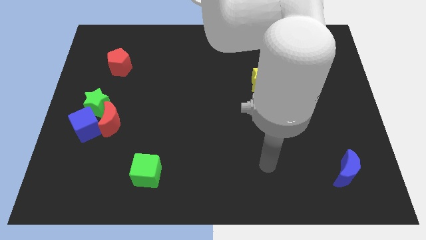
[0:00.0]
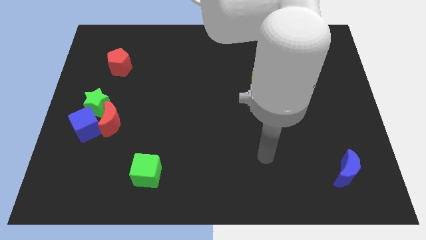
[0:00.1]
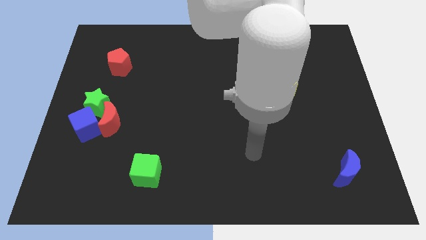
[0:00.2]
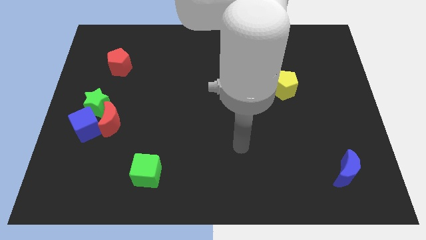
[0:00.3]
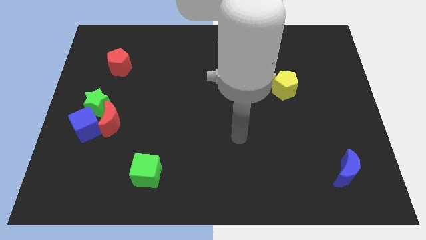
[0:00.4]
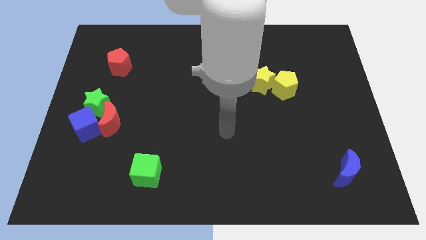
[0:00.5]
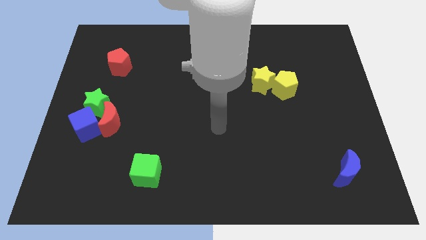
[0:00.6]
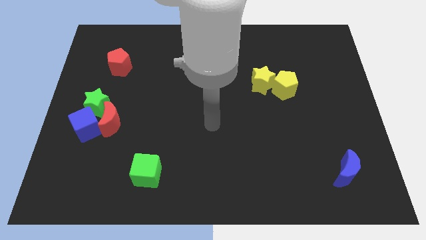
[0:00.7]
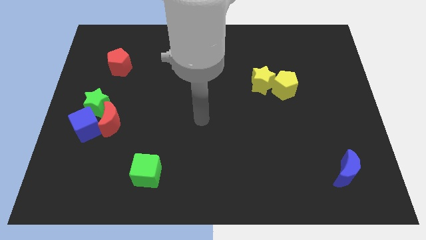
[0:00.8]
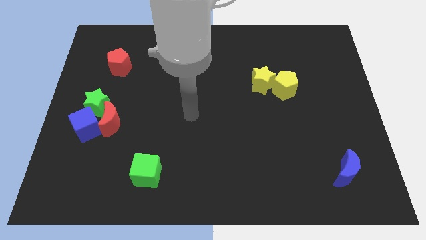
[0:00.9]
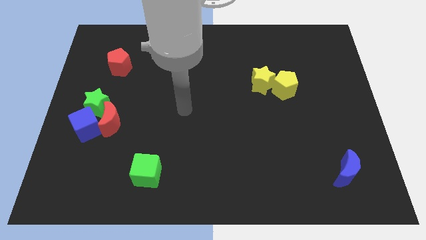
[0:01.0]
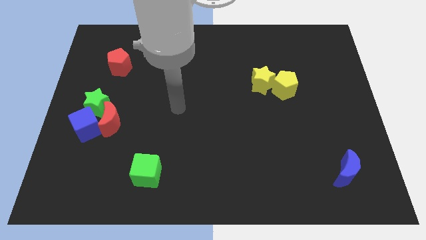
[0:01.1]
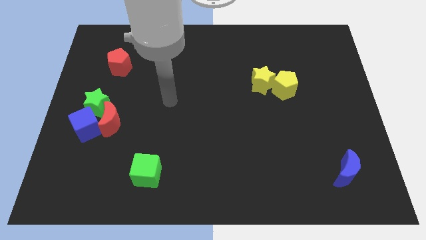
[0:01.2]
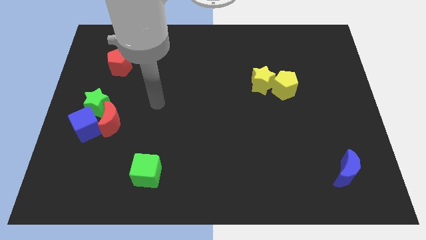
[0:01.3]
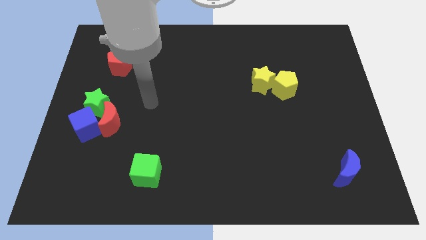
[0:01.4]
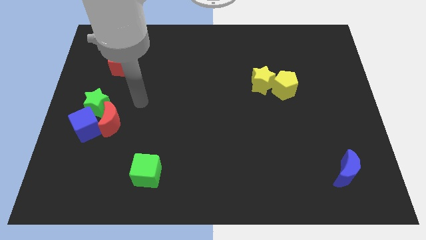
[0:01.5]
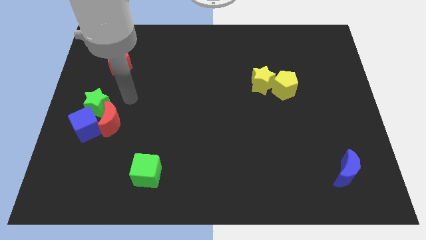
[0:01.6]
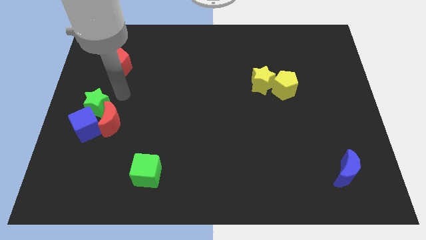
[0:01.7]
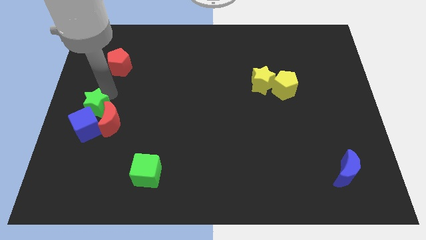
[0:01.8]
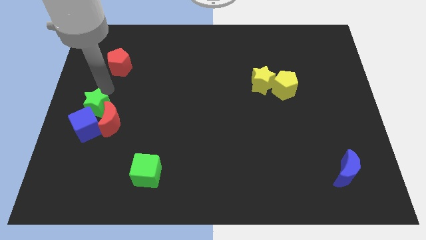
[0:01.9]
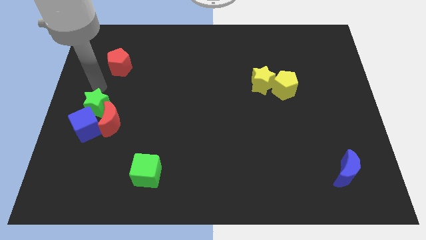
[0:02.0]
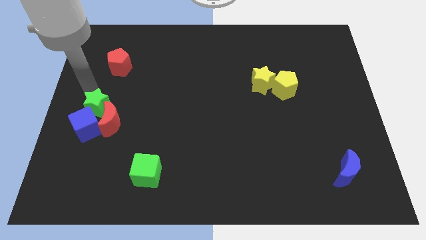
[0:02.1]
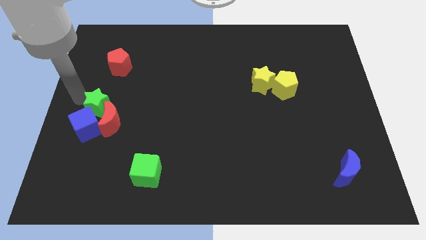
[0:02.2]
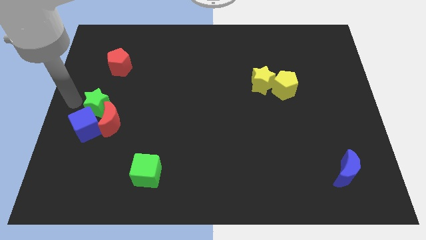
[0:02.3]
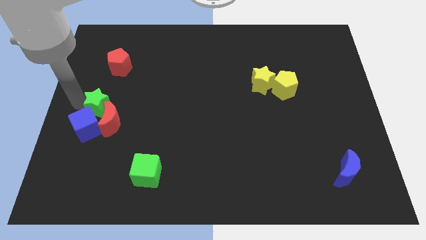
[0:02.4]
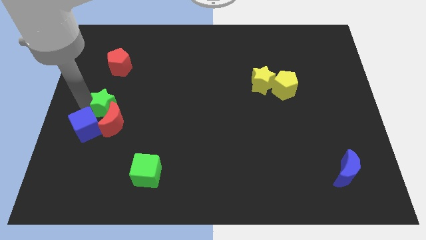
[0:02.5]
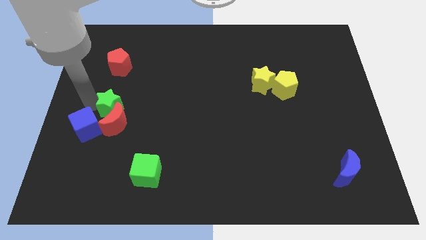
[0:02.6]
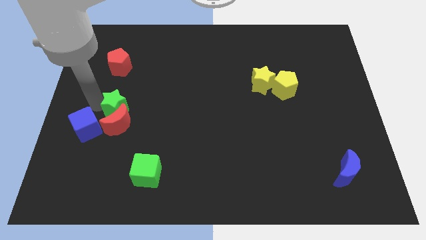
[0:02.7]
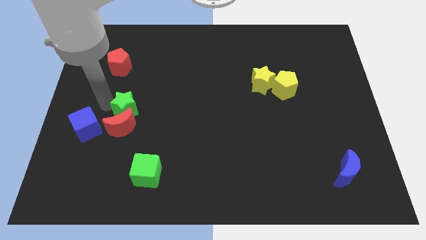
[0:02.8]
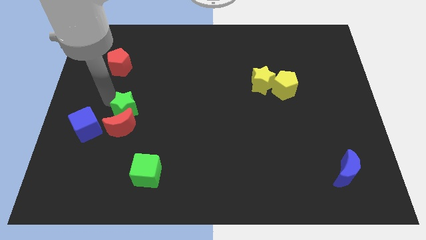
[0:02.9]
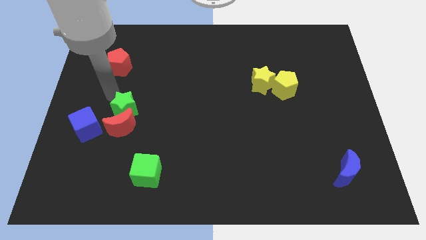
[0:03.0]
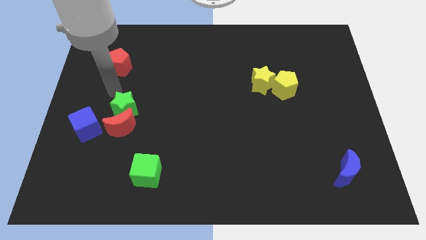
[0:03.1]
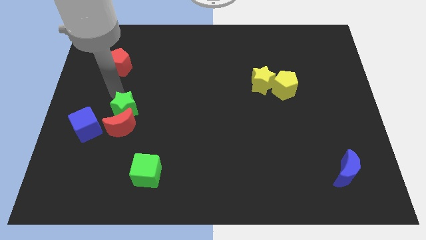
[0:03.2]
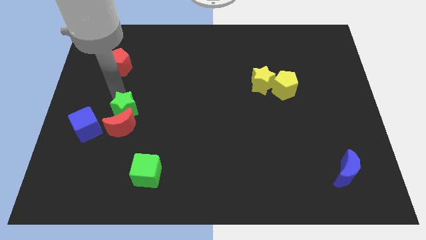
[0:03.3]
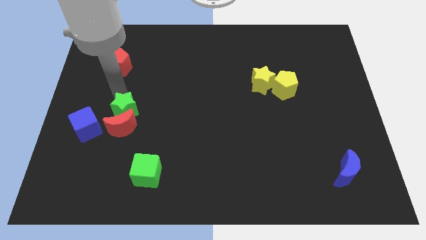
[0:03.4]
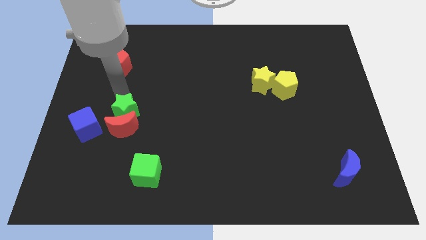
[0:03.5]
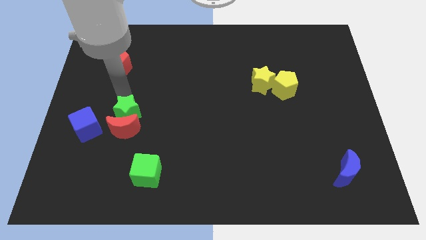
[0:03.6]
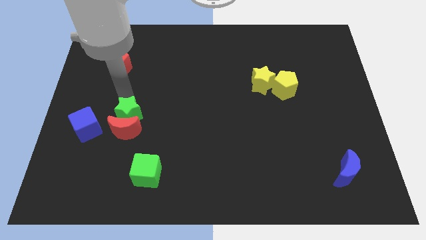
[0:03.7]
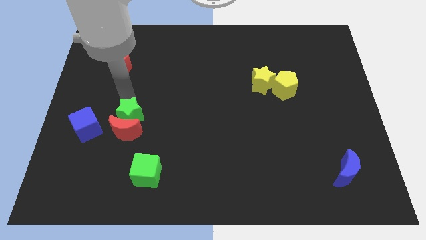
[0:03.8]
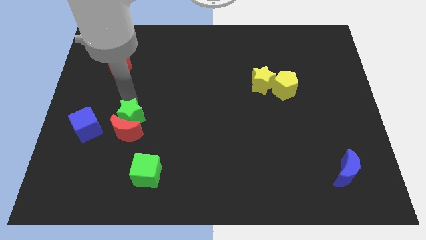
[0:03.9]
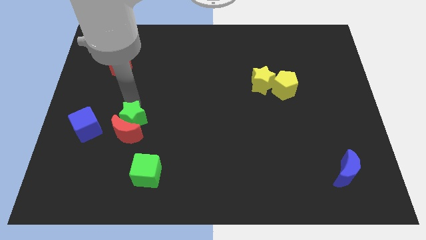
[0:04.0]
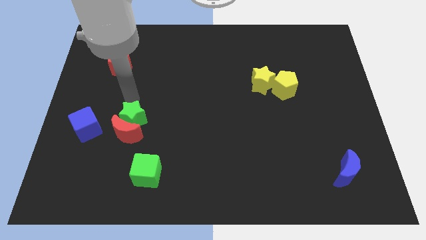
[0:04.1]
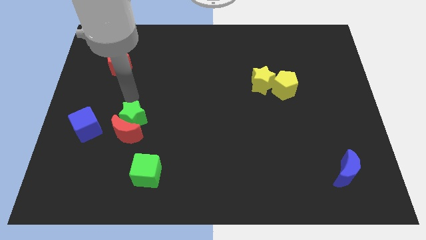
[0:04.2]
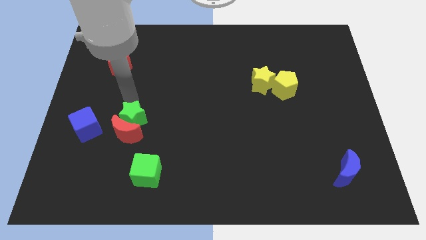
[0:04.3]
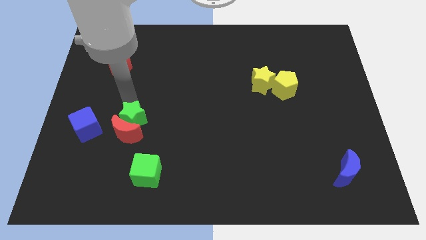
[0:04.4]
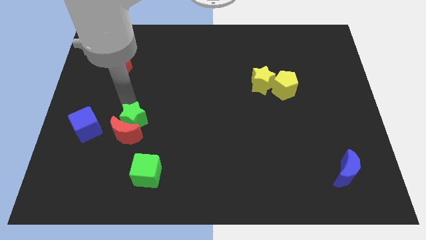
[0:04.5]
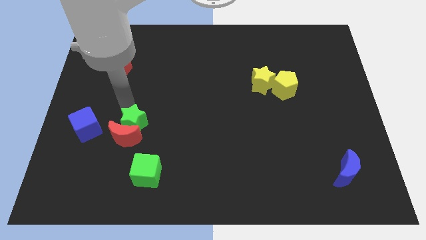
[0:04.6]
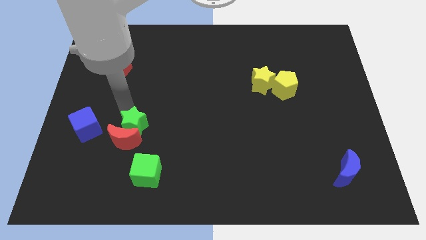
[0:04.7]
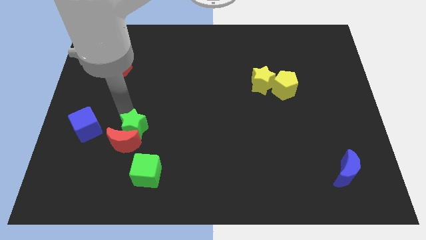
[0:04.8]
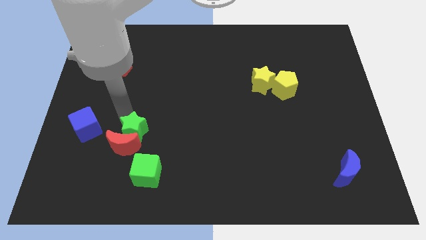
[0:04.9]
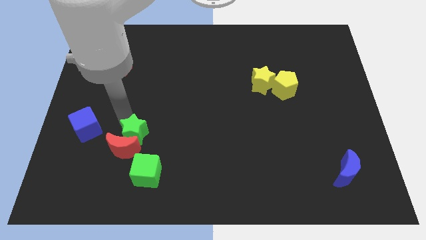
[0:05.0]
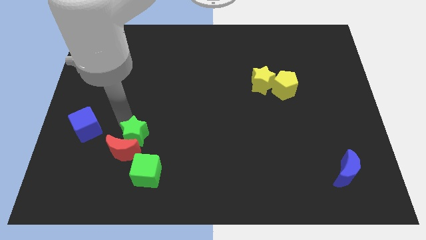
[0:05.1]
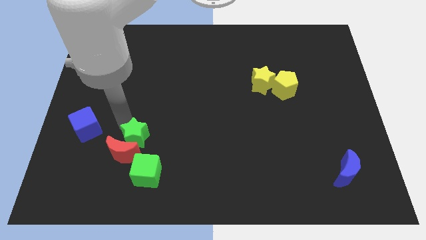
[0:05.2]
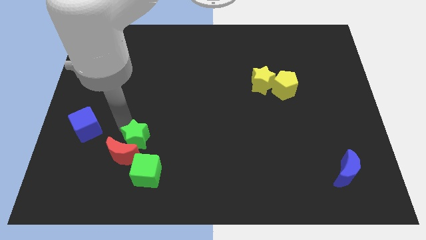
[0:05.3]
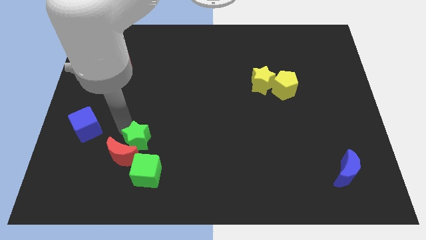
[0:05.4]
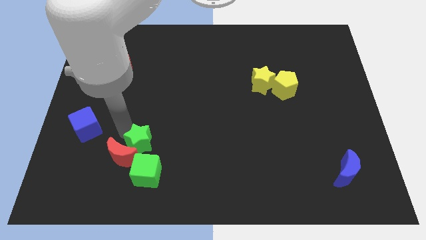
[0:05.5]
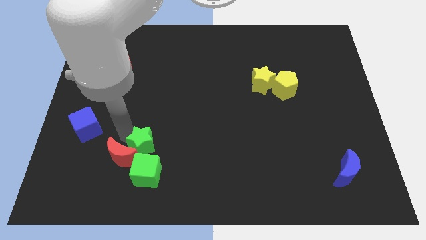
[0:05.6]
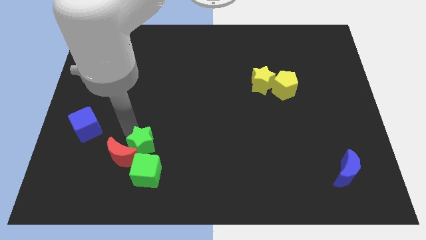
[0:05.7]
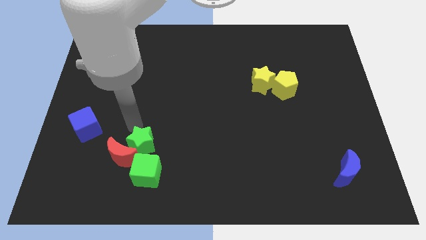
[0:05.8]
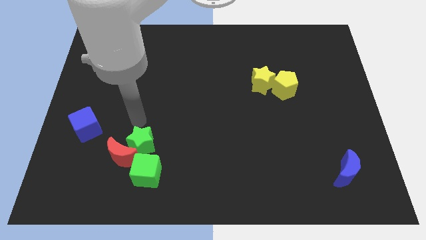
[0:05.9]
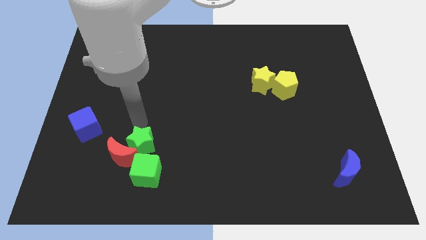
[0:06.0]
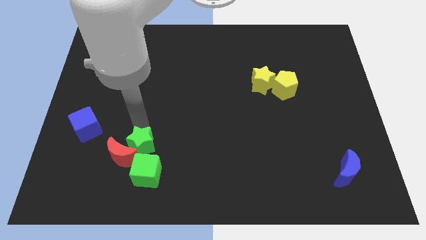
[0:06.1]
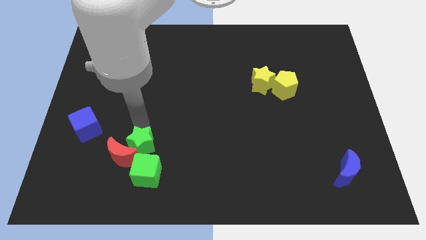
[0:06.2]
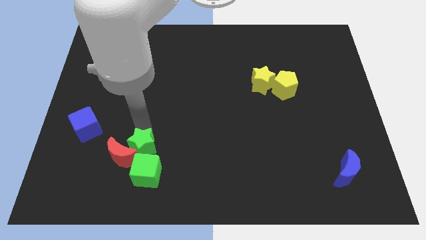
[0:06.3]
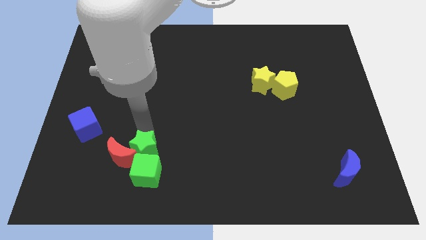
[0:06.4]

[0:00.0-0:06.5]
push the green star to the green cube
